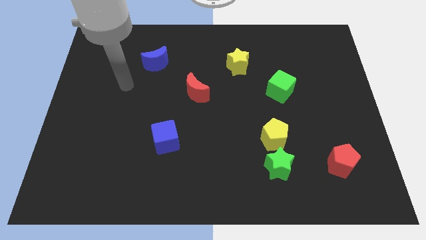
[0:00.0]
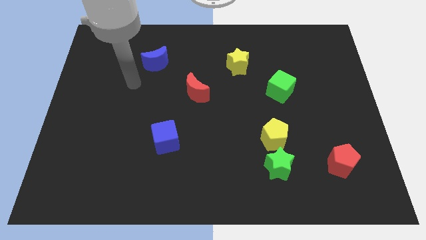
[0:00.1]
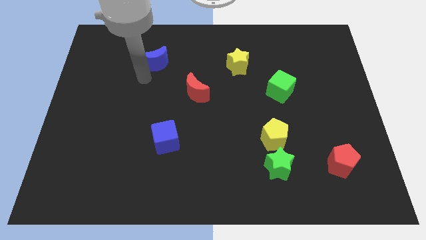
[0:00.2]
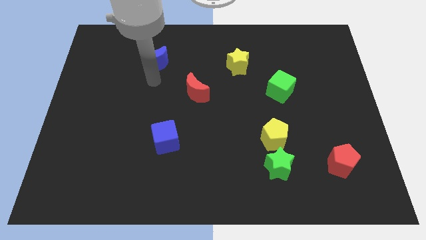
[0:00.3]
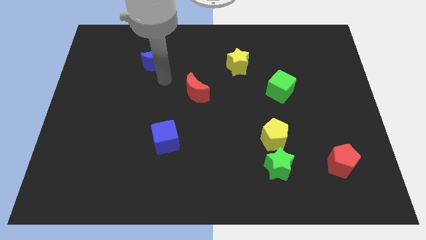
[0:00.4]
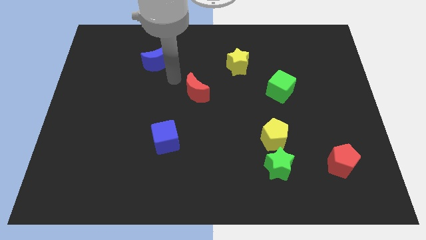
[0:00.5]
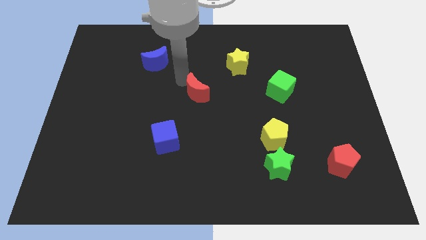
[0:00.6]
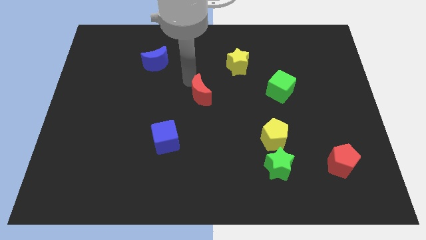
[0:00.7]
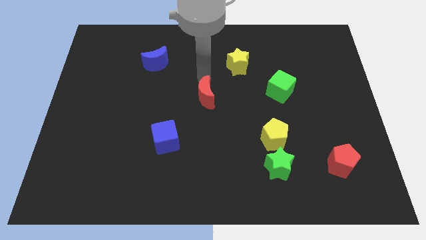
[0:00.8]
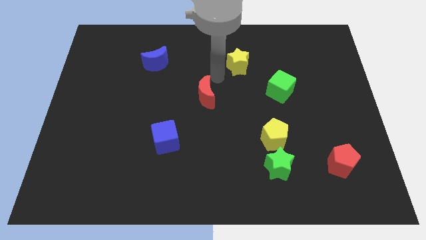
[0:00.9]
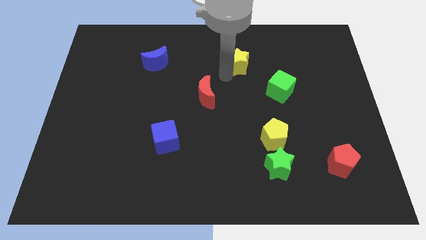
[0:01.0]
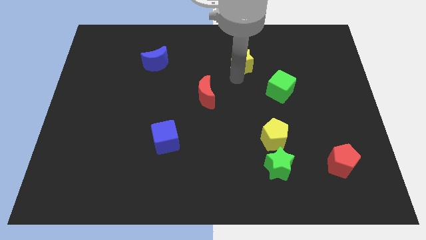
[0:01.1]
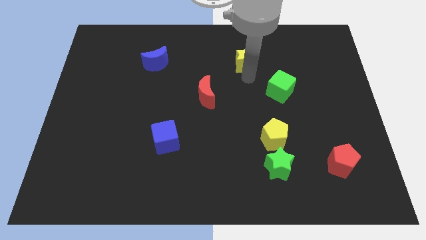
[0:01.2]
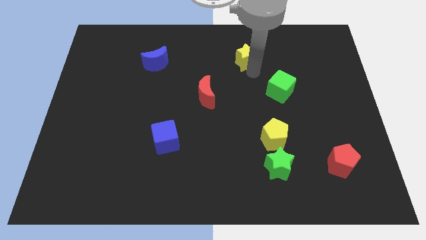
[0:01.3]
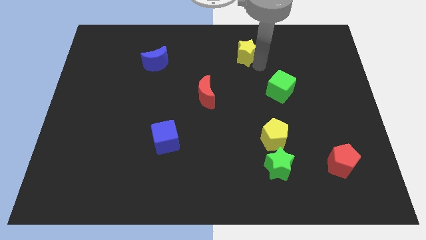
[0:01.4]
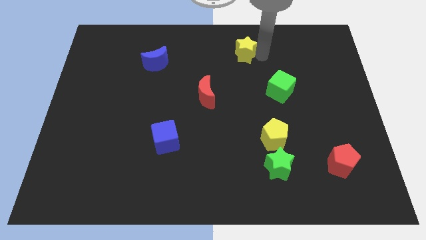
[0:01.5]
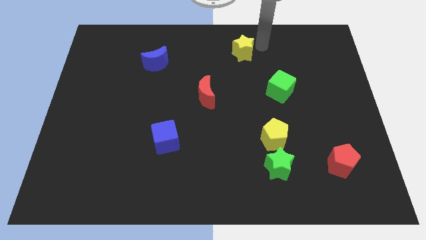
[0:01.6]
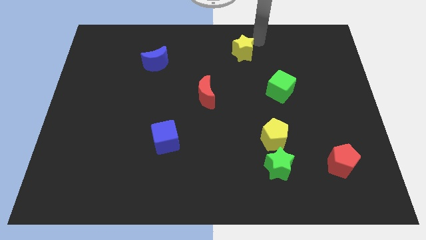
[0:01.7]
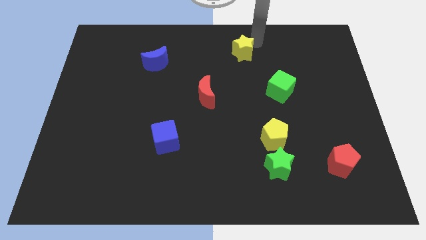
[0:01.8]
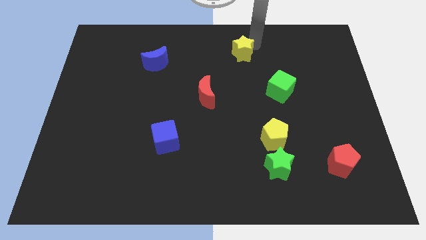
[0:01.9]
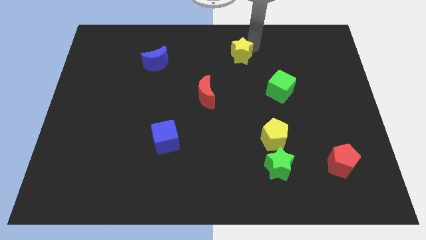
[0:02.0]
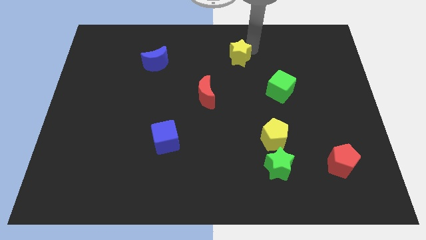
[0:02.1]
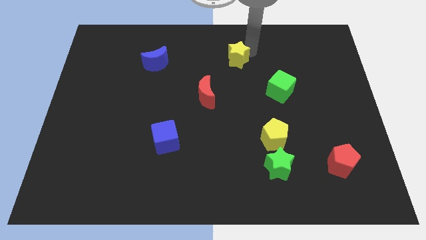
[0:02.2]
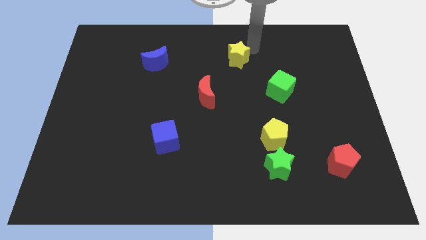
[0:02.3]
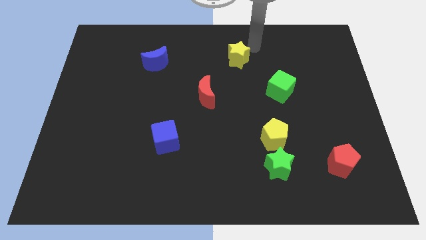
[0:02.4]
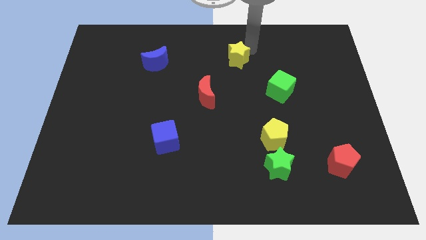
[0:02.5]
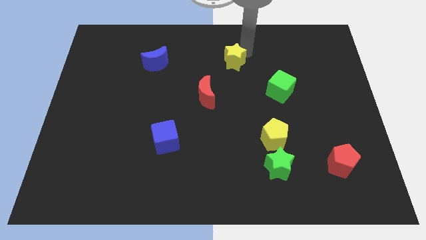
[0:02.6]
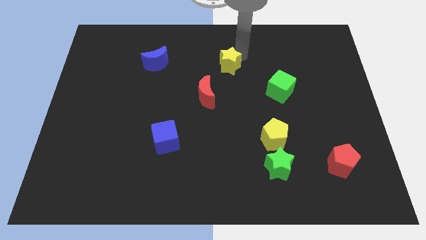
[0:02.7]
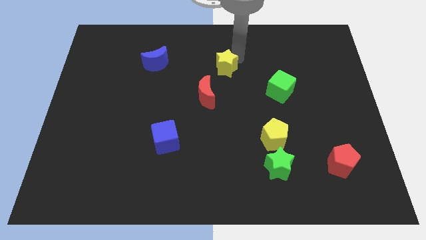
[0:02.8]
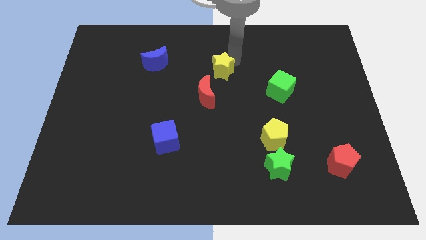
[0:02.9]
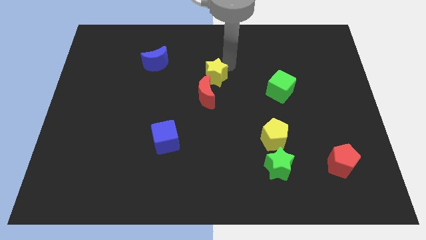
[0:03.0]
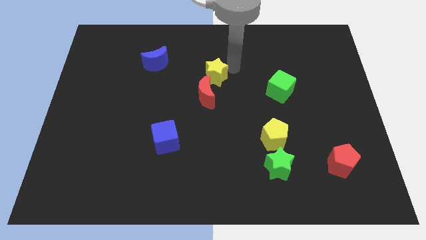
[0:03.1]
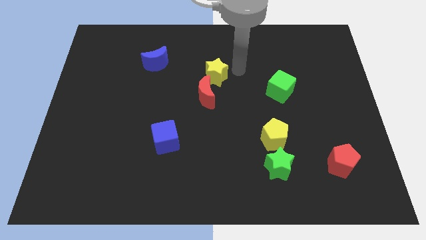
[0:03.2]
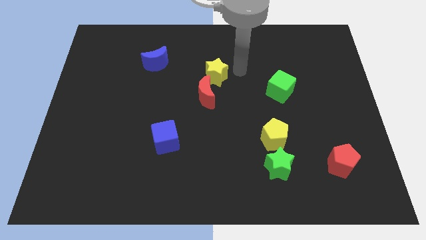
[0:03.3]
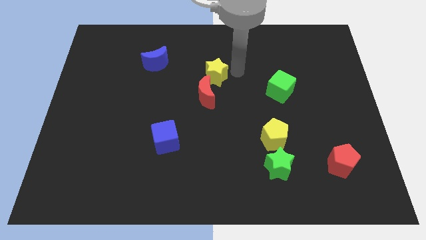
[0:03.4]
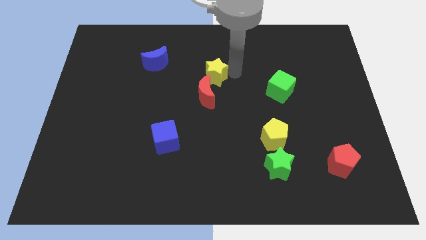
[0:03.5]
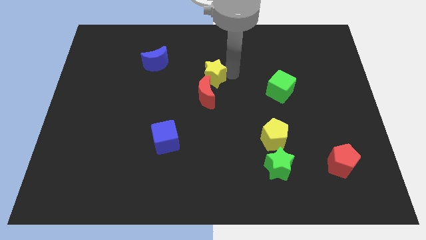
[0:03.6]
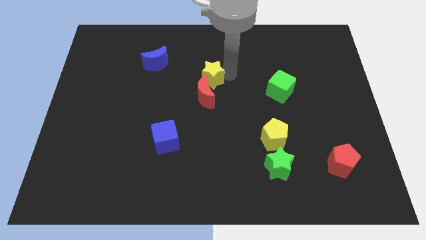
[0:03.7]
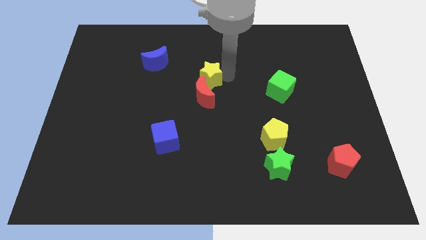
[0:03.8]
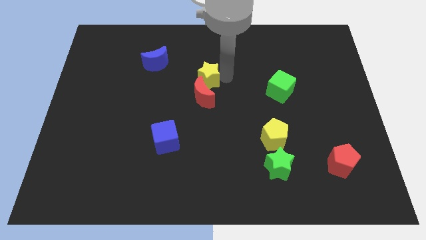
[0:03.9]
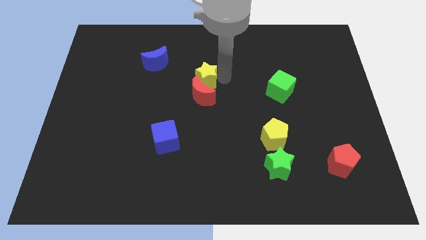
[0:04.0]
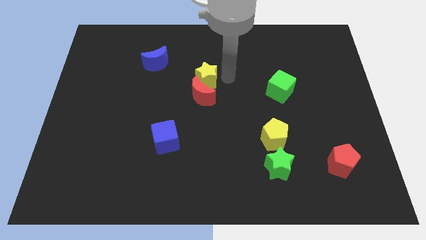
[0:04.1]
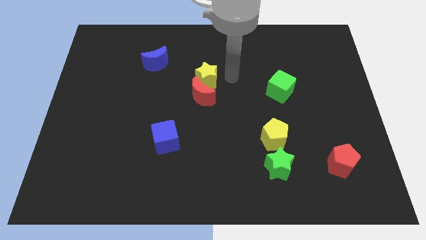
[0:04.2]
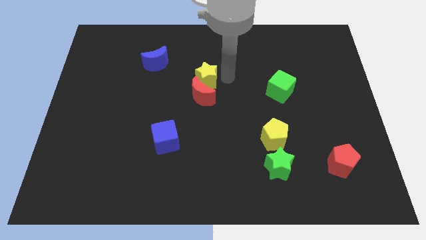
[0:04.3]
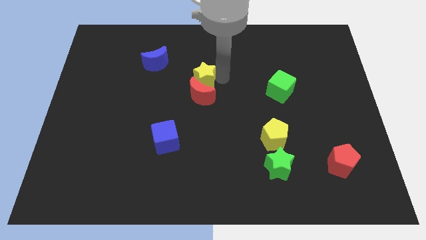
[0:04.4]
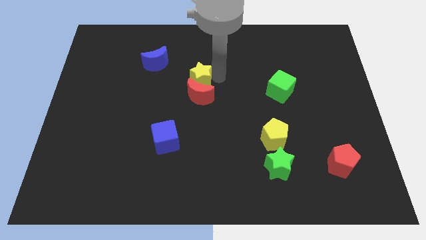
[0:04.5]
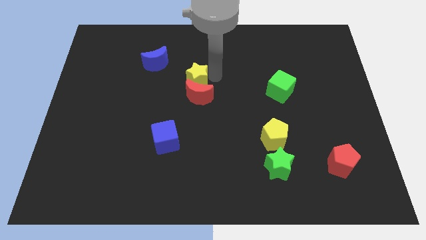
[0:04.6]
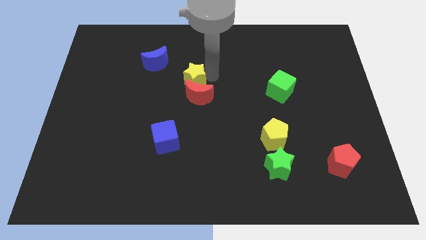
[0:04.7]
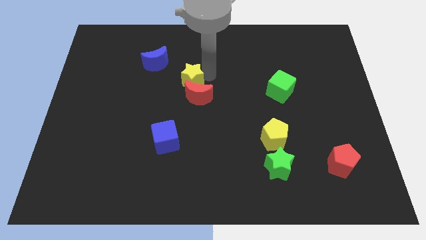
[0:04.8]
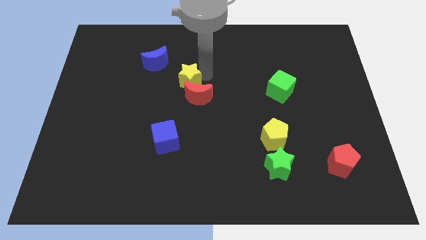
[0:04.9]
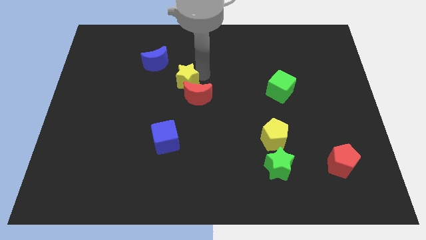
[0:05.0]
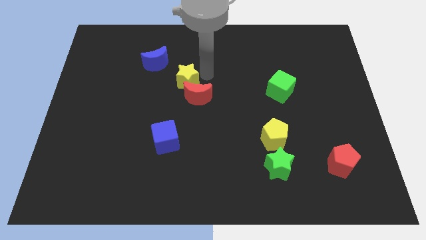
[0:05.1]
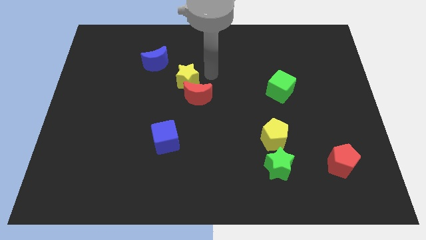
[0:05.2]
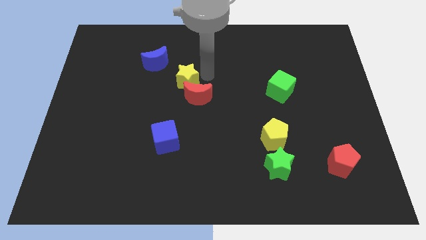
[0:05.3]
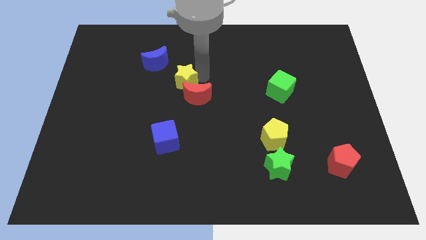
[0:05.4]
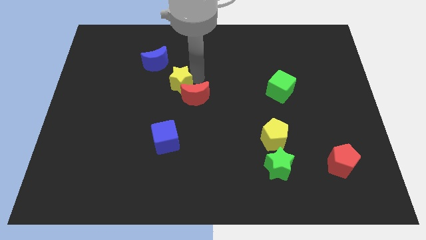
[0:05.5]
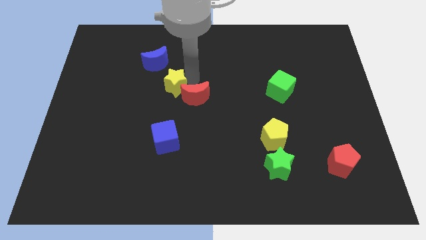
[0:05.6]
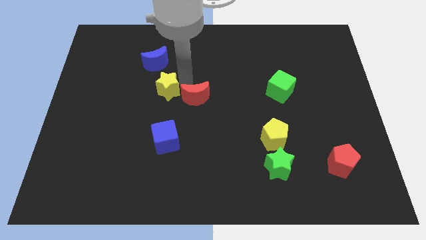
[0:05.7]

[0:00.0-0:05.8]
slide the yellow star below the blue moon
